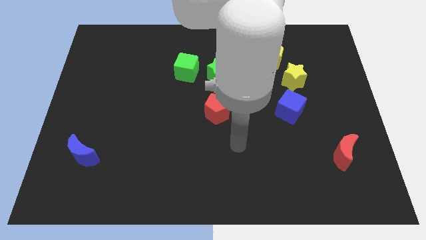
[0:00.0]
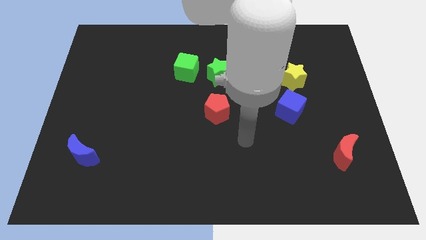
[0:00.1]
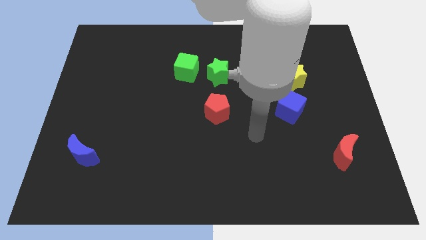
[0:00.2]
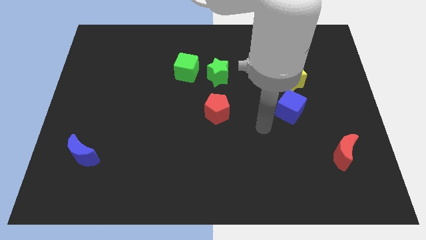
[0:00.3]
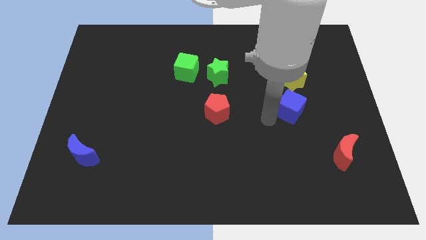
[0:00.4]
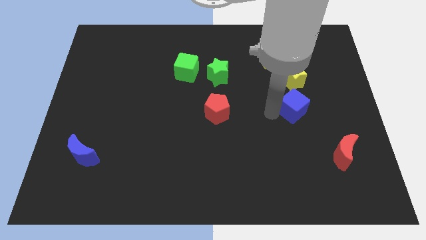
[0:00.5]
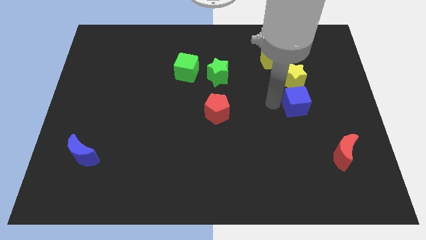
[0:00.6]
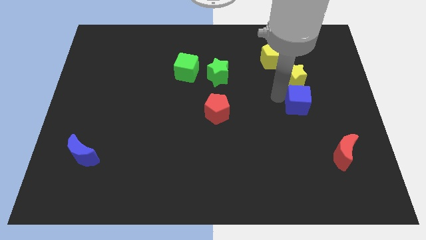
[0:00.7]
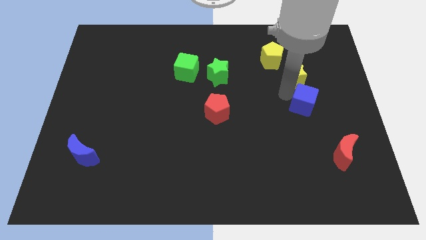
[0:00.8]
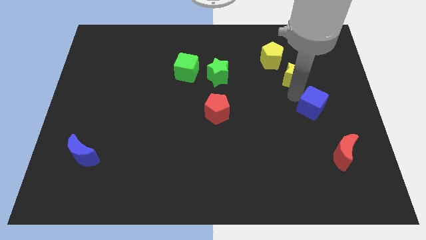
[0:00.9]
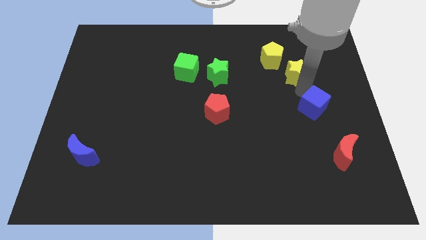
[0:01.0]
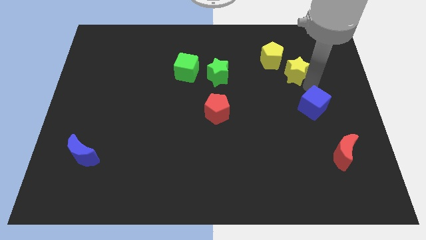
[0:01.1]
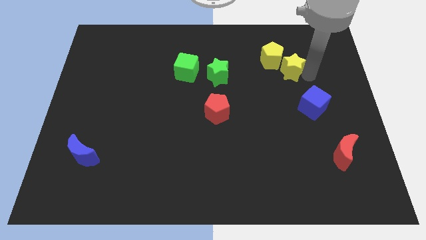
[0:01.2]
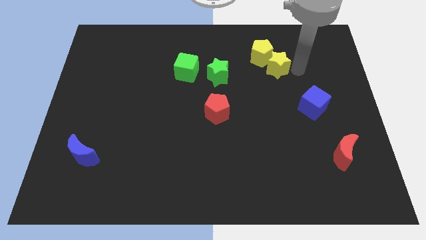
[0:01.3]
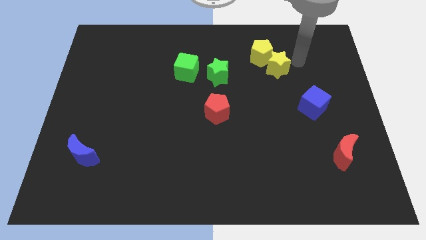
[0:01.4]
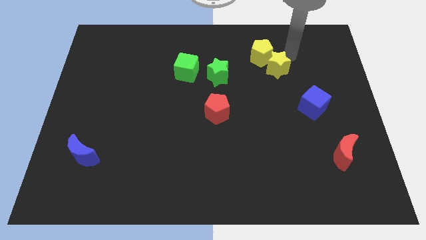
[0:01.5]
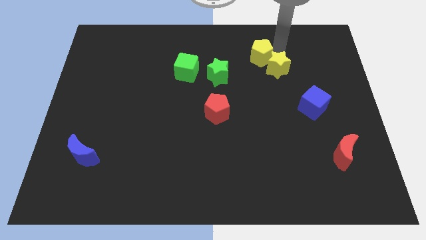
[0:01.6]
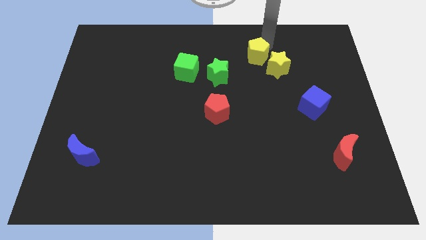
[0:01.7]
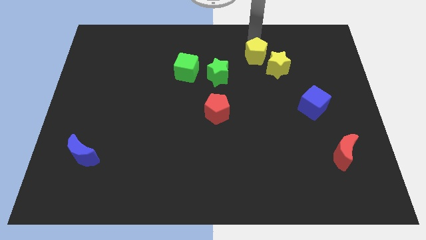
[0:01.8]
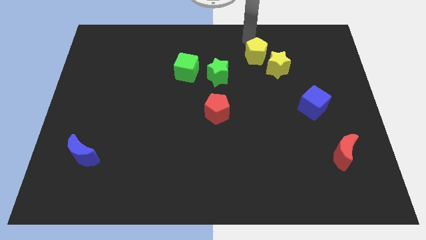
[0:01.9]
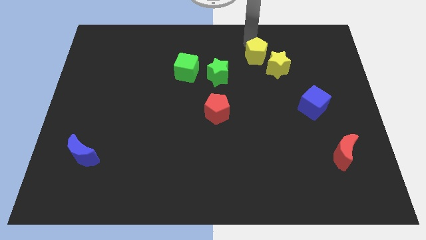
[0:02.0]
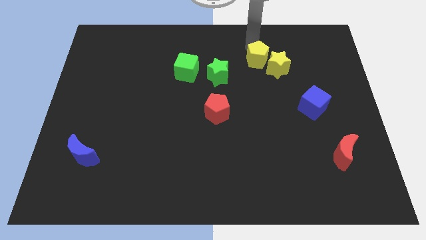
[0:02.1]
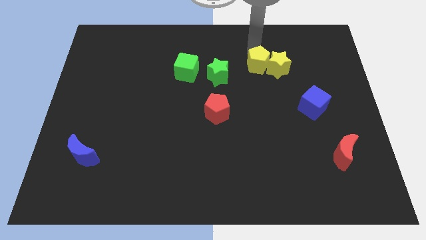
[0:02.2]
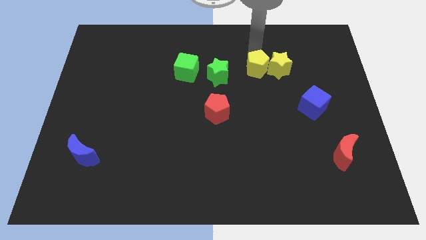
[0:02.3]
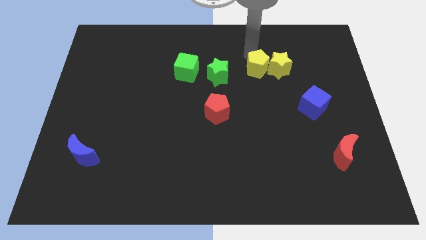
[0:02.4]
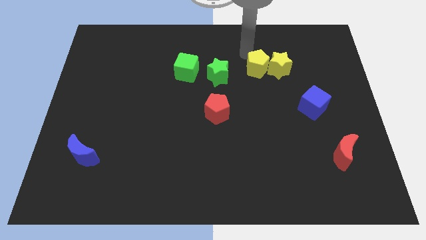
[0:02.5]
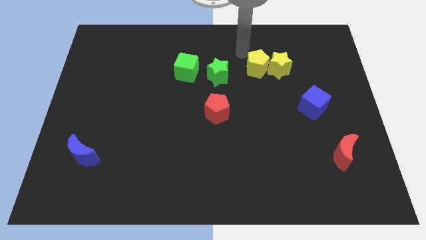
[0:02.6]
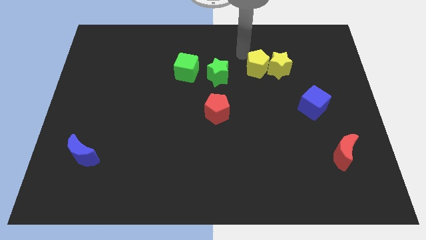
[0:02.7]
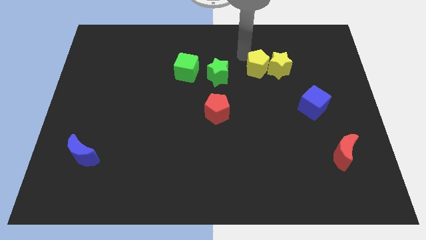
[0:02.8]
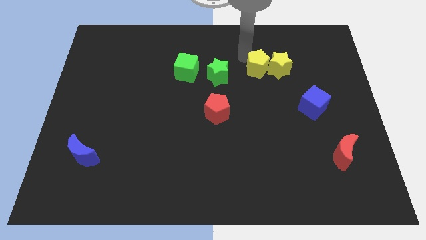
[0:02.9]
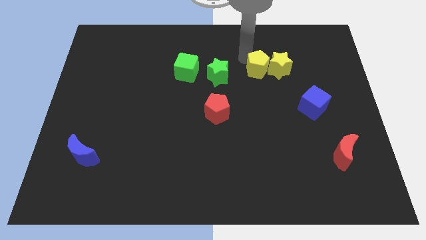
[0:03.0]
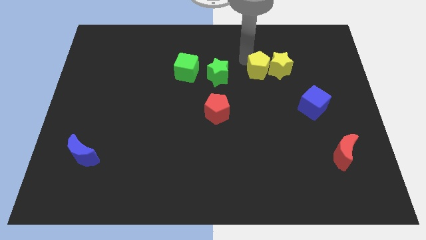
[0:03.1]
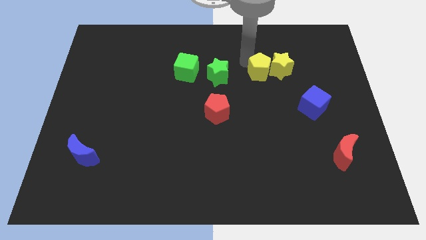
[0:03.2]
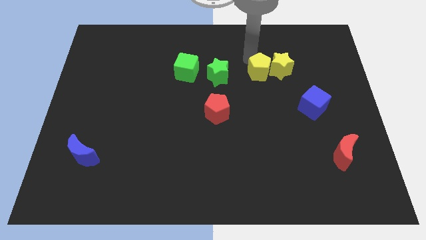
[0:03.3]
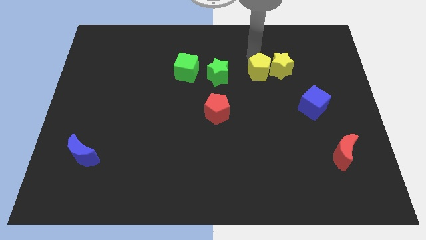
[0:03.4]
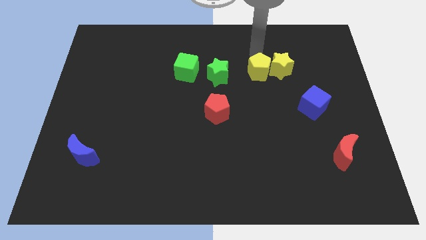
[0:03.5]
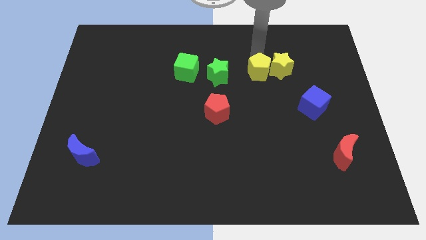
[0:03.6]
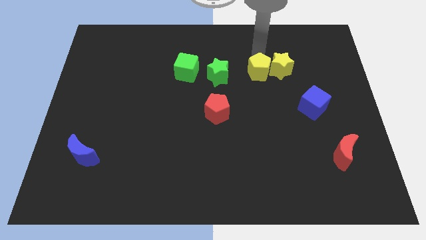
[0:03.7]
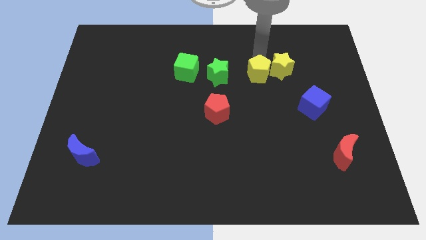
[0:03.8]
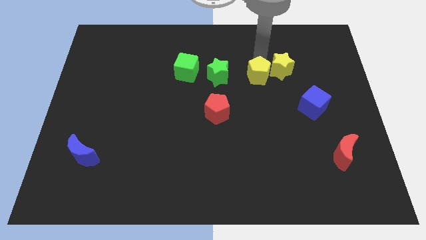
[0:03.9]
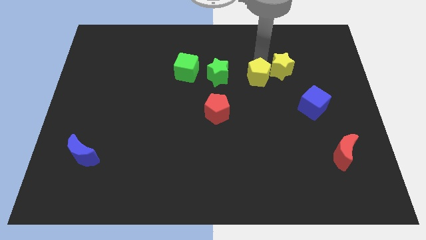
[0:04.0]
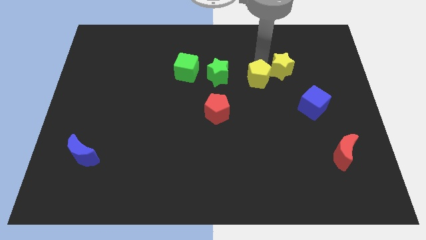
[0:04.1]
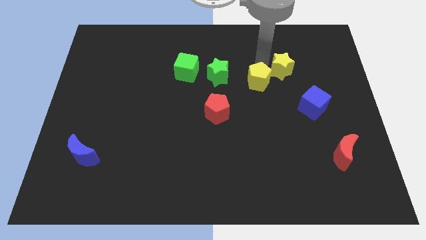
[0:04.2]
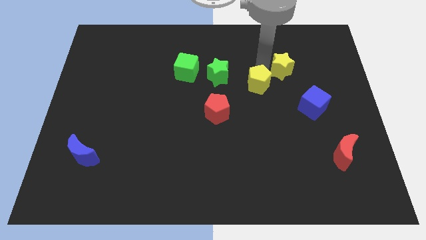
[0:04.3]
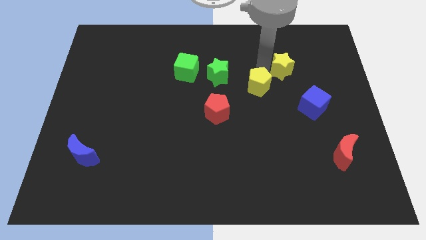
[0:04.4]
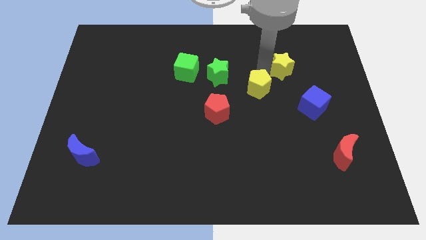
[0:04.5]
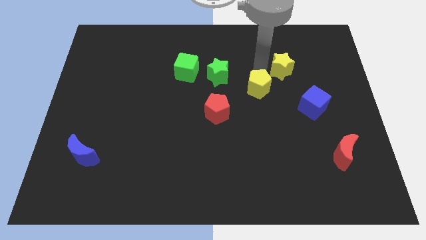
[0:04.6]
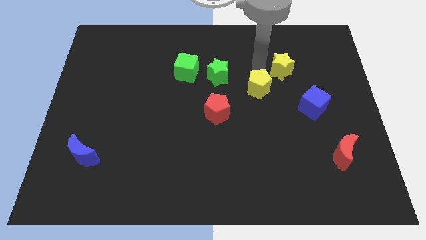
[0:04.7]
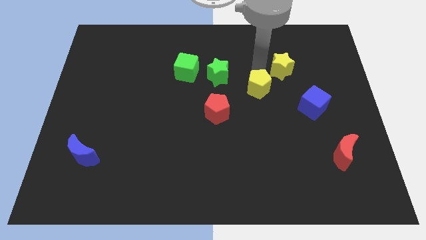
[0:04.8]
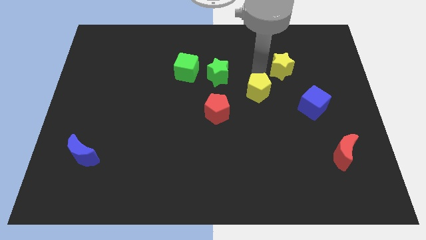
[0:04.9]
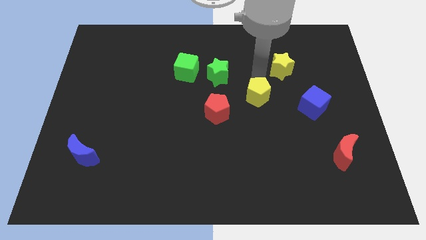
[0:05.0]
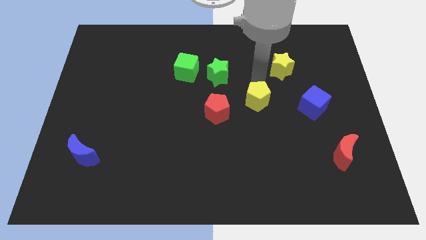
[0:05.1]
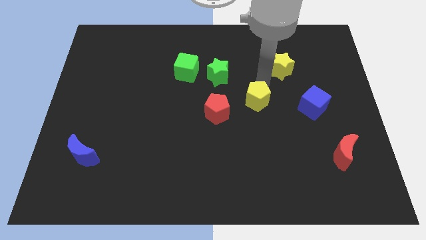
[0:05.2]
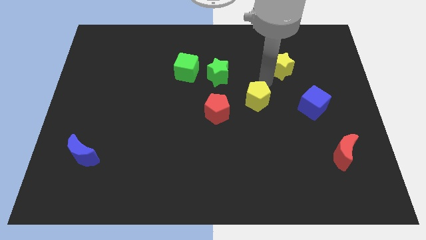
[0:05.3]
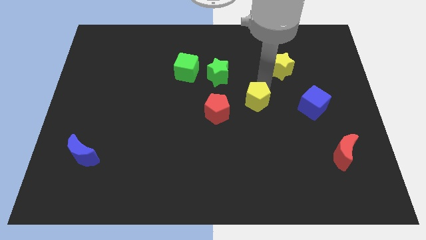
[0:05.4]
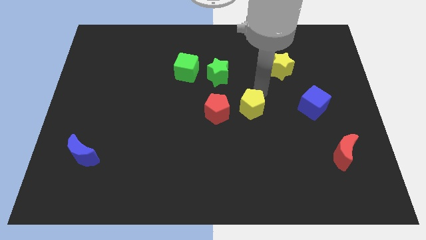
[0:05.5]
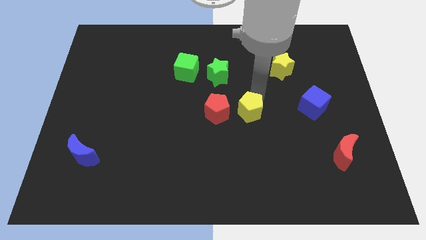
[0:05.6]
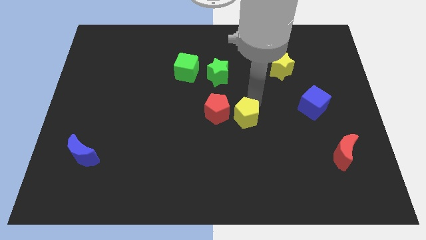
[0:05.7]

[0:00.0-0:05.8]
move the yellow pentagon to the bottom right of the red pentagon

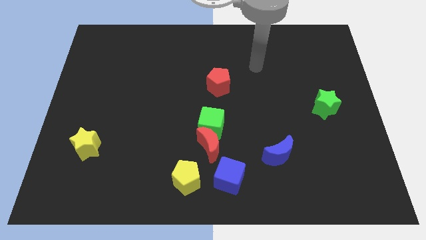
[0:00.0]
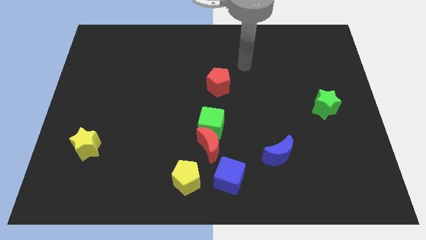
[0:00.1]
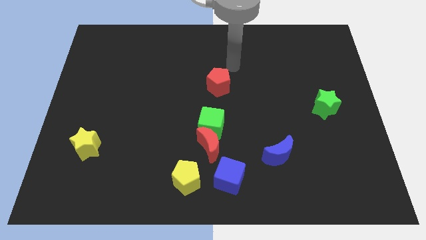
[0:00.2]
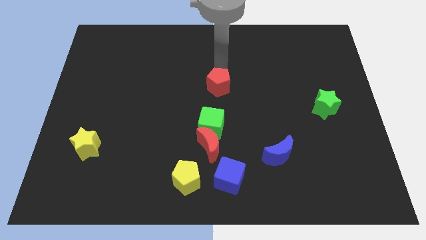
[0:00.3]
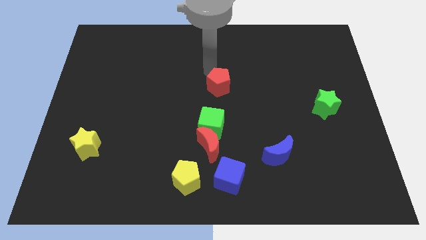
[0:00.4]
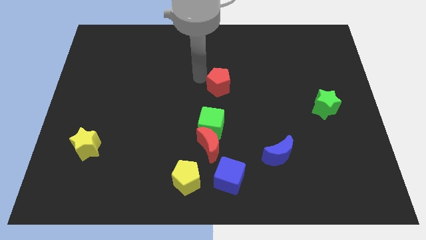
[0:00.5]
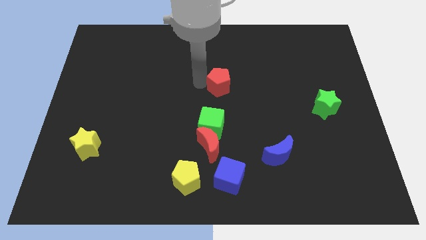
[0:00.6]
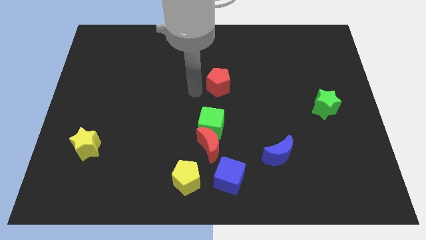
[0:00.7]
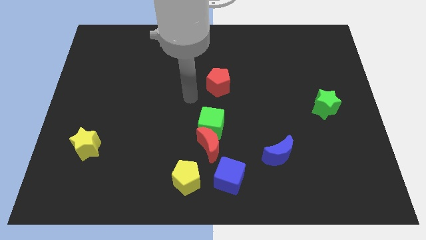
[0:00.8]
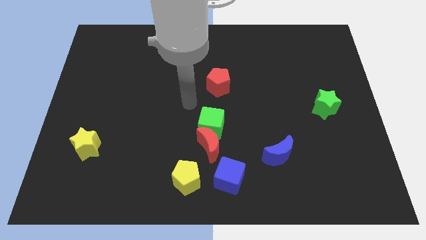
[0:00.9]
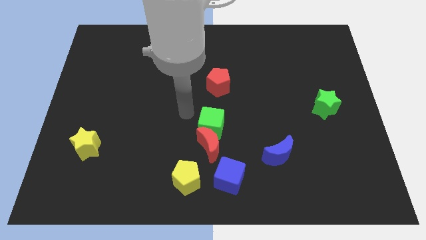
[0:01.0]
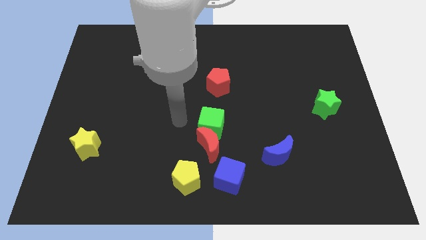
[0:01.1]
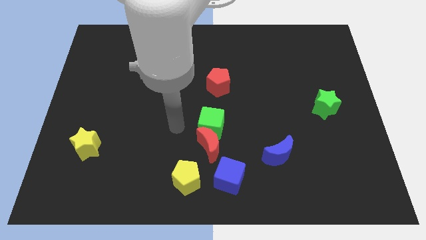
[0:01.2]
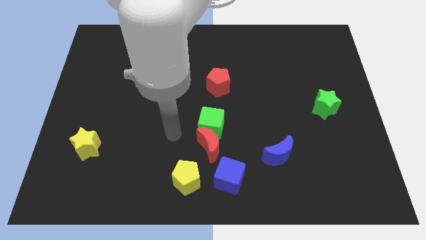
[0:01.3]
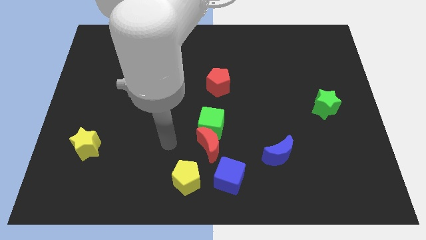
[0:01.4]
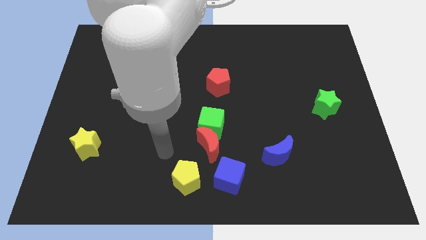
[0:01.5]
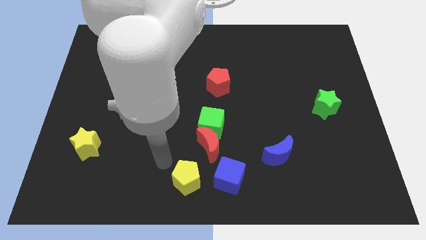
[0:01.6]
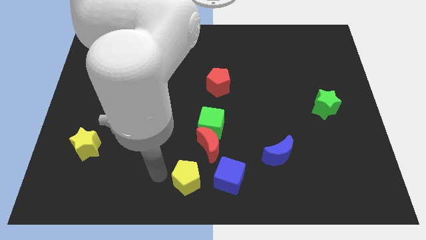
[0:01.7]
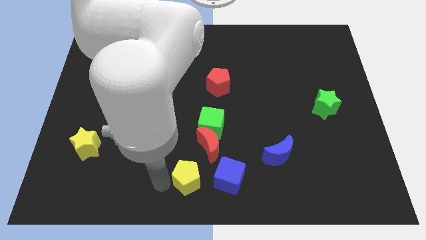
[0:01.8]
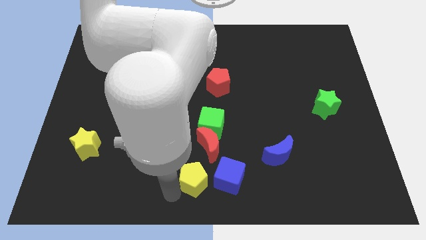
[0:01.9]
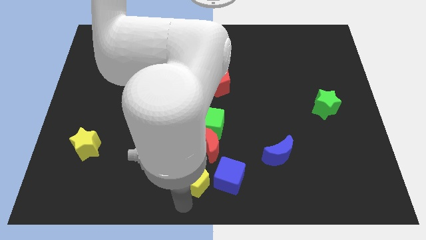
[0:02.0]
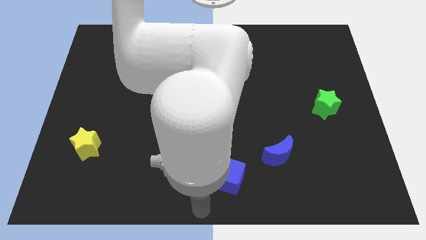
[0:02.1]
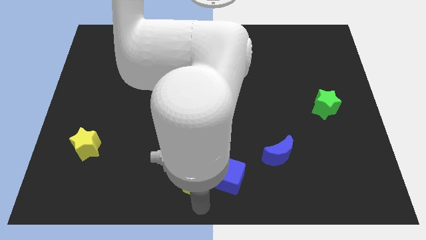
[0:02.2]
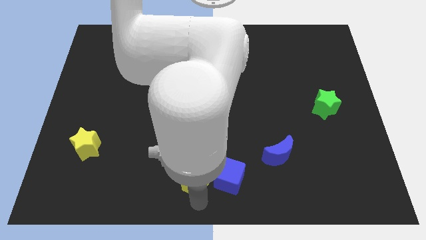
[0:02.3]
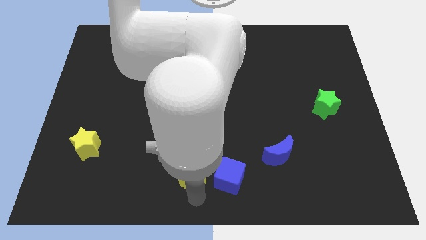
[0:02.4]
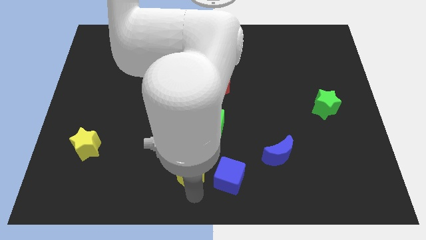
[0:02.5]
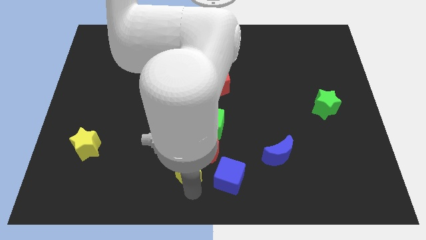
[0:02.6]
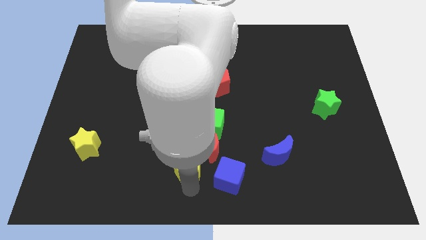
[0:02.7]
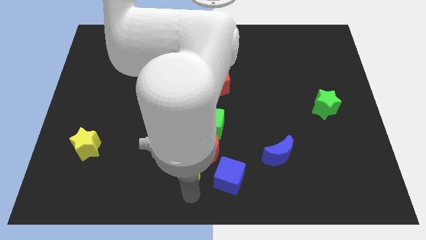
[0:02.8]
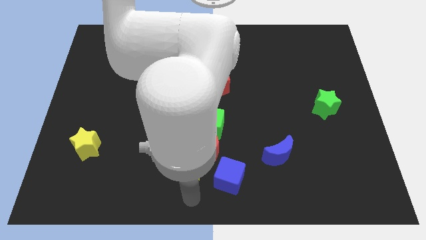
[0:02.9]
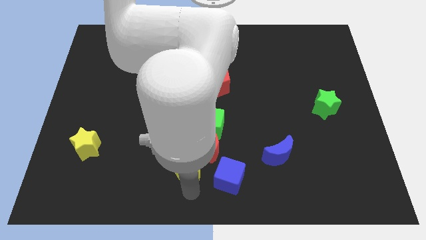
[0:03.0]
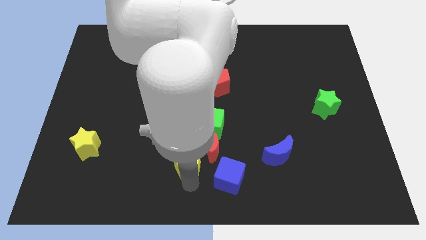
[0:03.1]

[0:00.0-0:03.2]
push the yellow pentagon to the bottom left of the green cube
